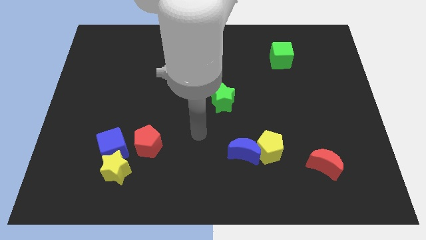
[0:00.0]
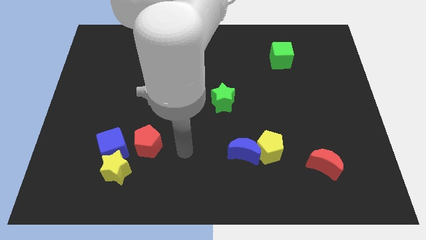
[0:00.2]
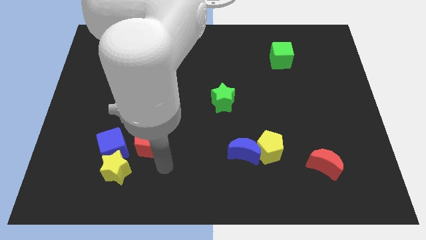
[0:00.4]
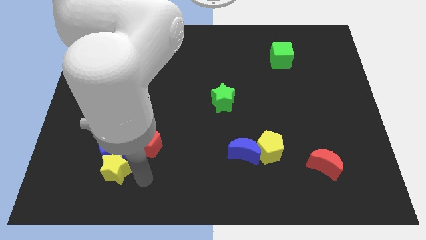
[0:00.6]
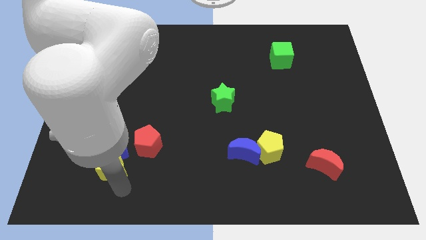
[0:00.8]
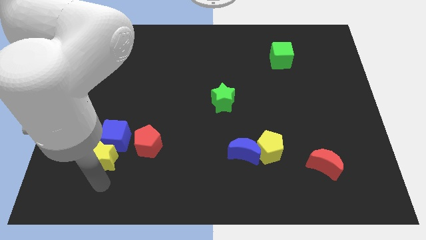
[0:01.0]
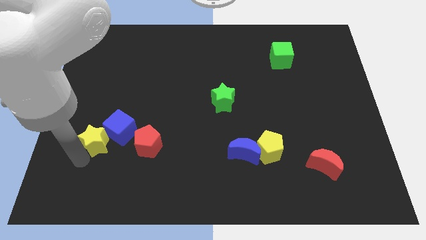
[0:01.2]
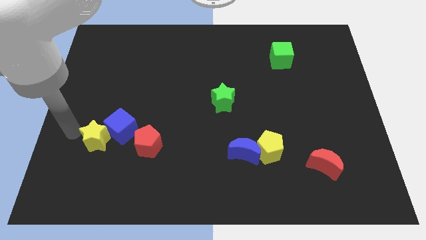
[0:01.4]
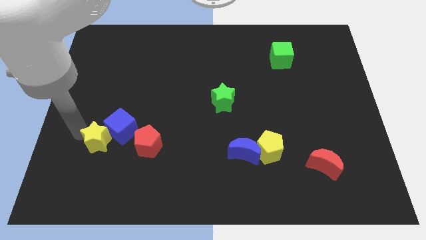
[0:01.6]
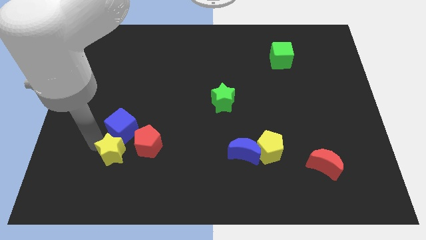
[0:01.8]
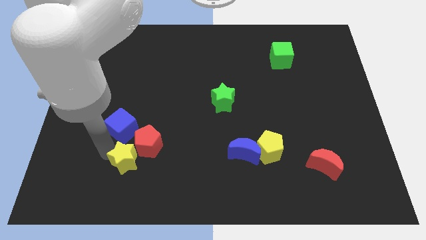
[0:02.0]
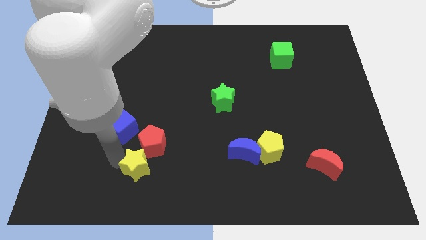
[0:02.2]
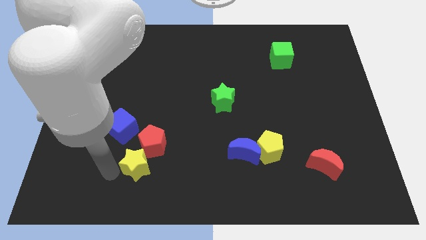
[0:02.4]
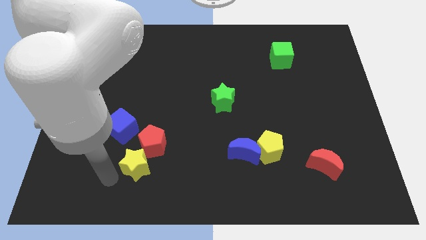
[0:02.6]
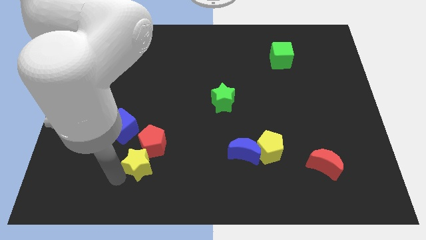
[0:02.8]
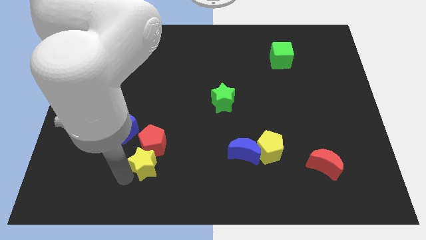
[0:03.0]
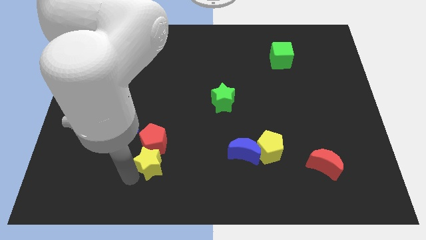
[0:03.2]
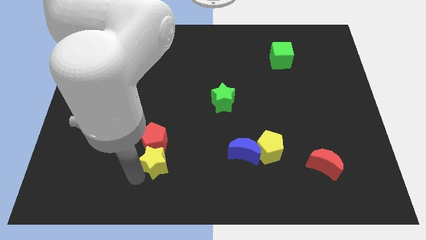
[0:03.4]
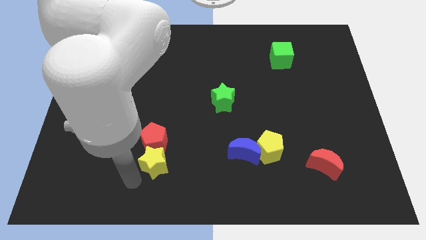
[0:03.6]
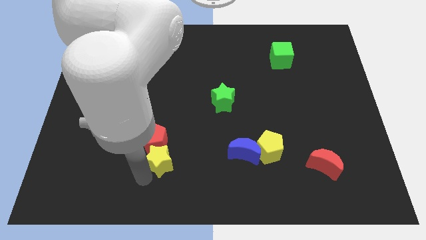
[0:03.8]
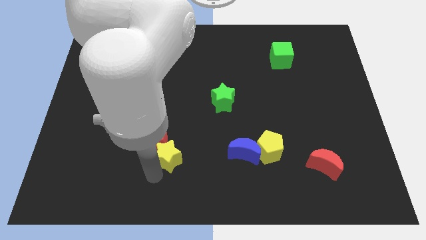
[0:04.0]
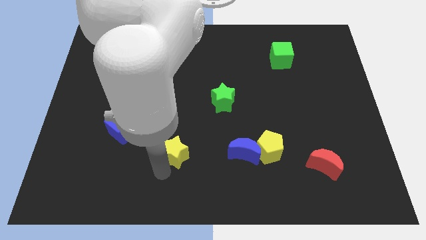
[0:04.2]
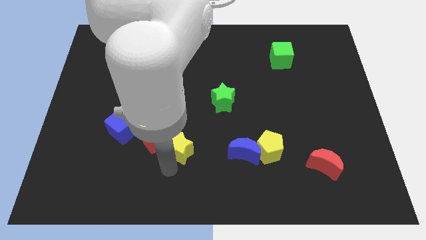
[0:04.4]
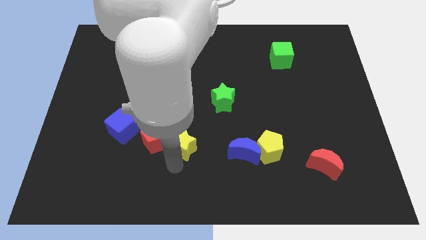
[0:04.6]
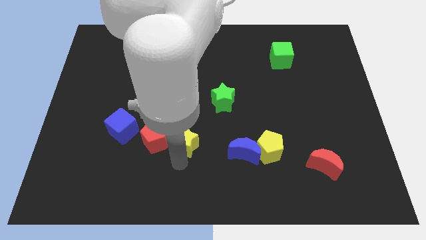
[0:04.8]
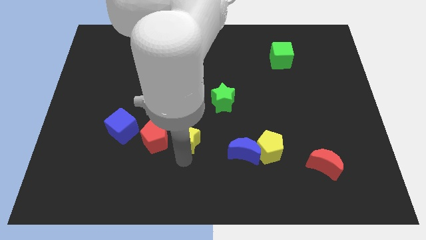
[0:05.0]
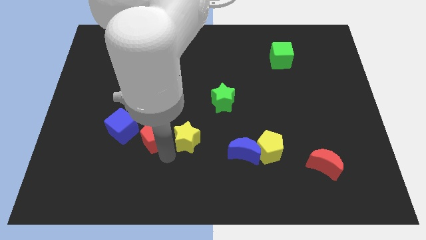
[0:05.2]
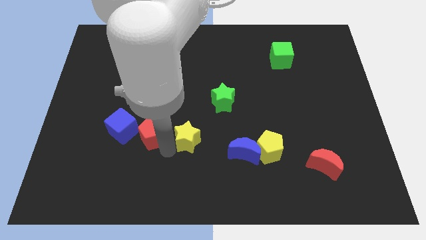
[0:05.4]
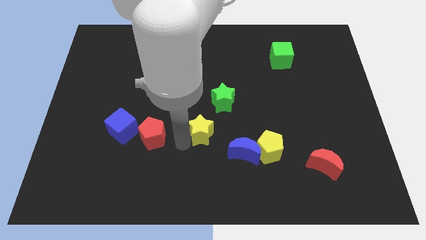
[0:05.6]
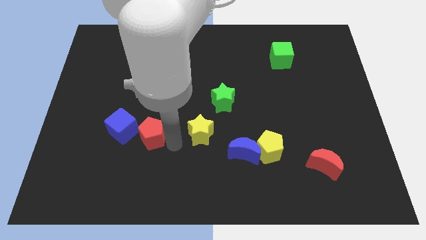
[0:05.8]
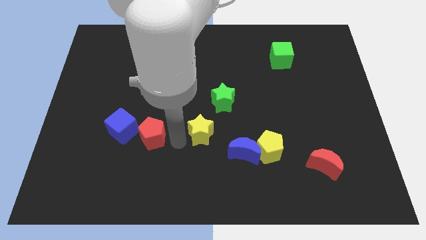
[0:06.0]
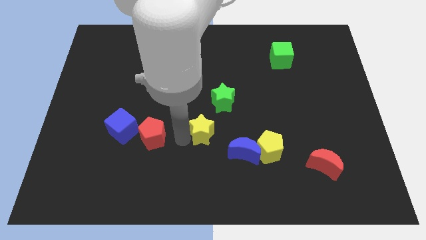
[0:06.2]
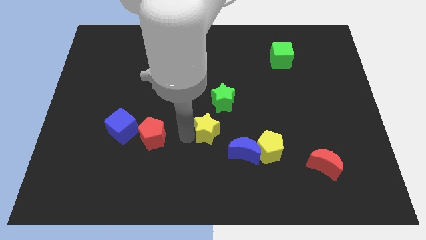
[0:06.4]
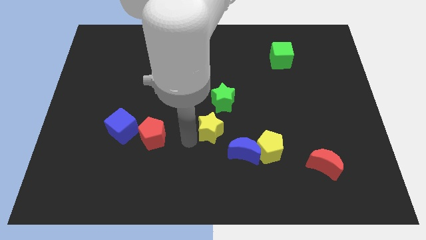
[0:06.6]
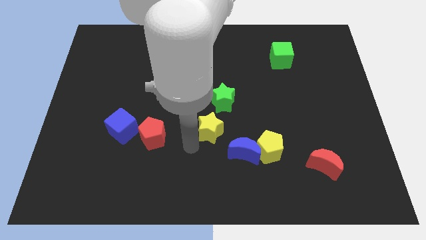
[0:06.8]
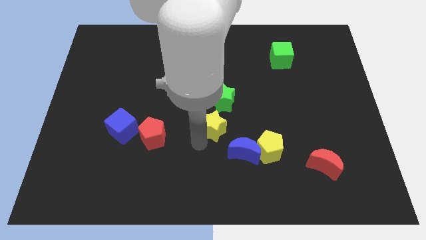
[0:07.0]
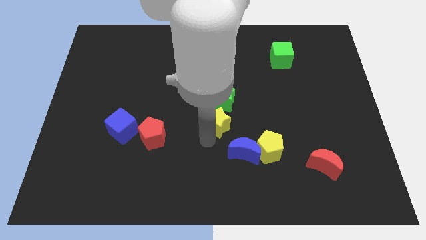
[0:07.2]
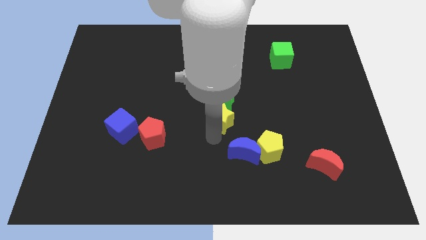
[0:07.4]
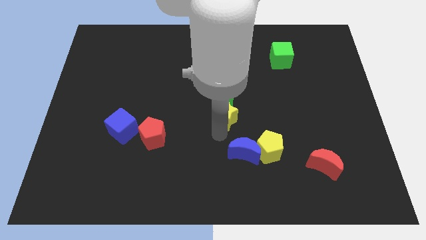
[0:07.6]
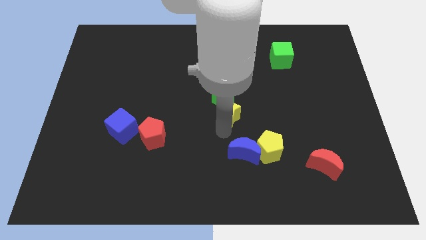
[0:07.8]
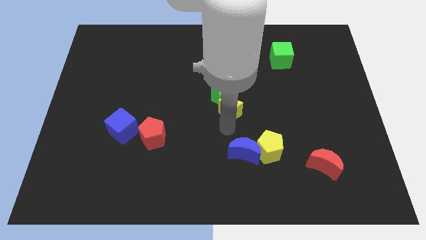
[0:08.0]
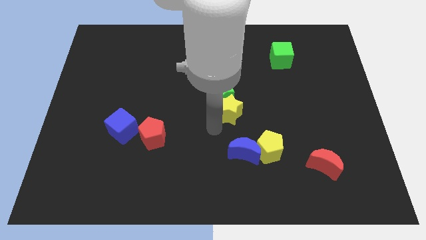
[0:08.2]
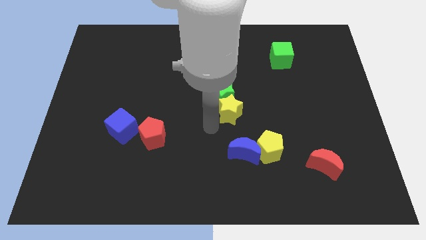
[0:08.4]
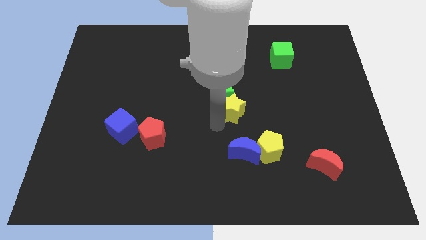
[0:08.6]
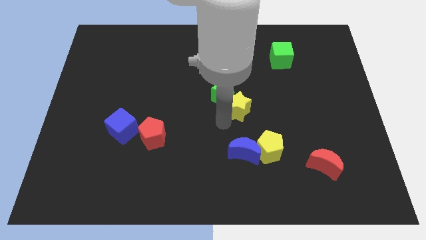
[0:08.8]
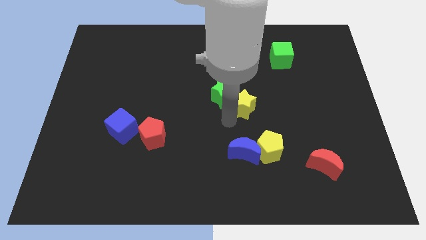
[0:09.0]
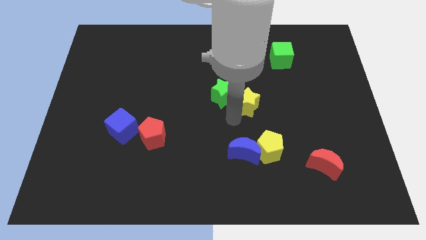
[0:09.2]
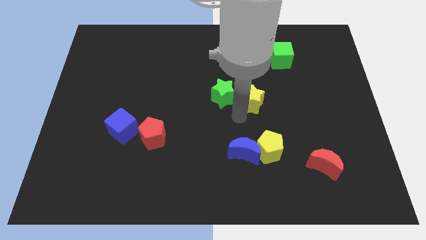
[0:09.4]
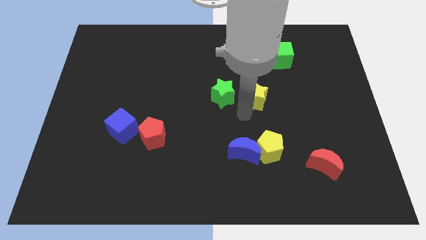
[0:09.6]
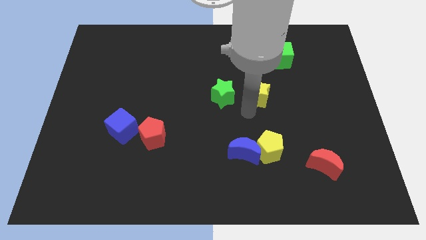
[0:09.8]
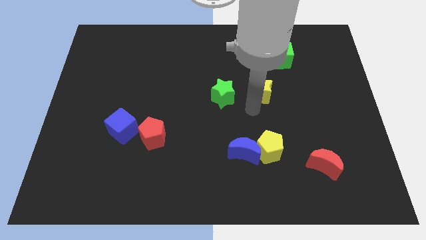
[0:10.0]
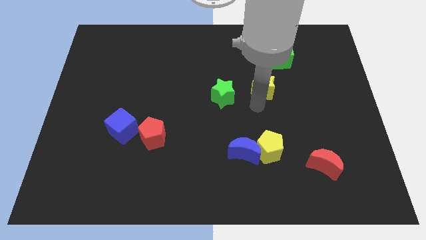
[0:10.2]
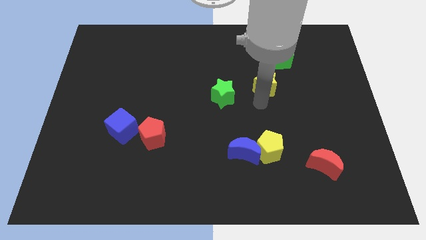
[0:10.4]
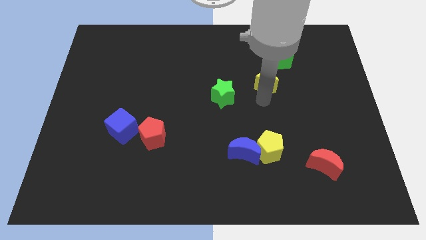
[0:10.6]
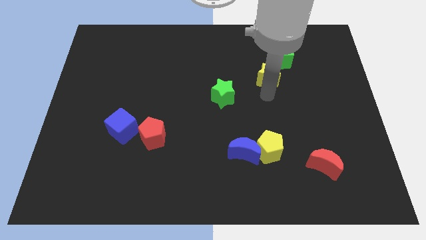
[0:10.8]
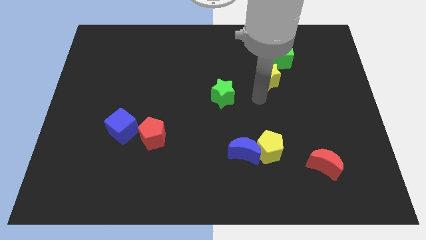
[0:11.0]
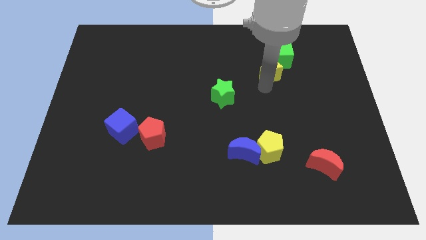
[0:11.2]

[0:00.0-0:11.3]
slide the yellow star next to the green cube

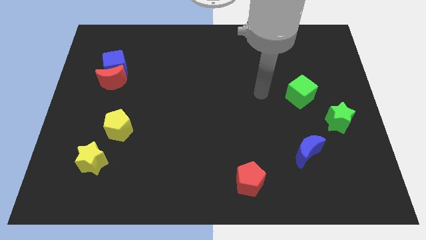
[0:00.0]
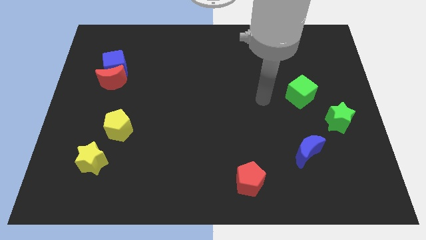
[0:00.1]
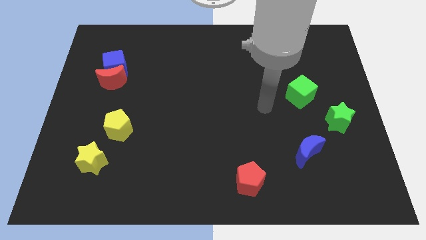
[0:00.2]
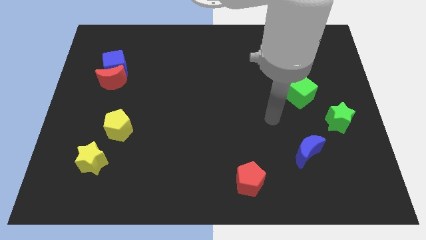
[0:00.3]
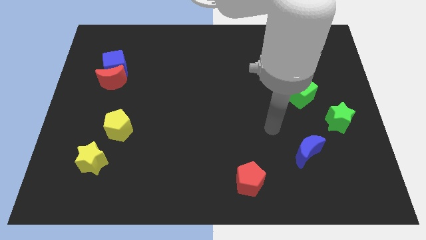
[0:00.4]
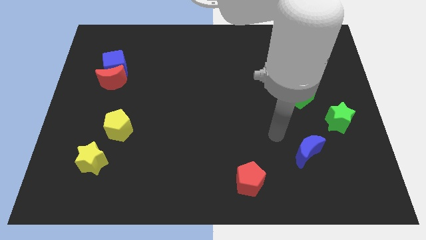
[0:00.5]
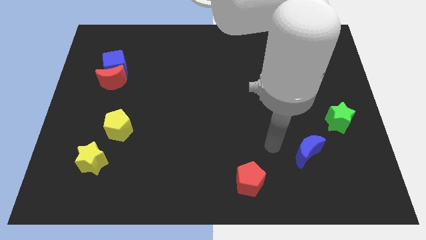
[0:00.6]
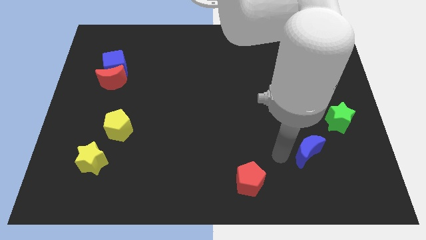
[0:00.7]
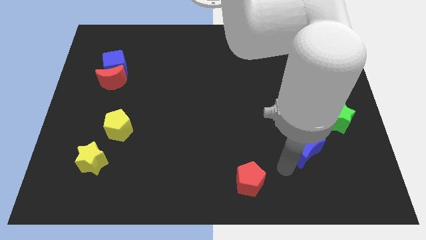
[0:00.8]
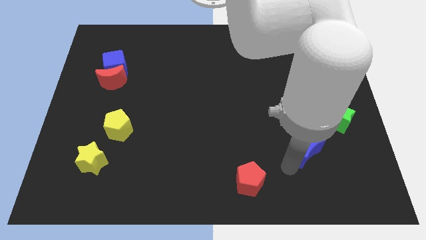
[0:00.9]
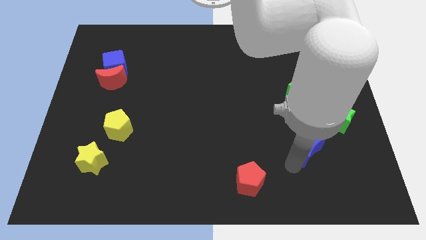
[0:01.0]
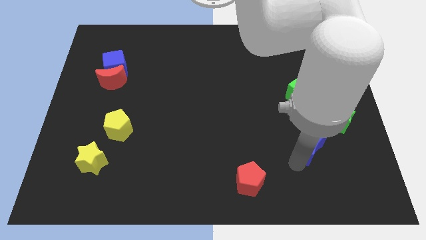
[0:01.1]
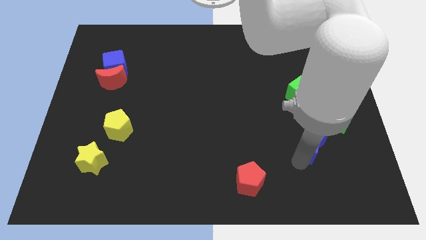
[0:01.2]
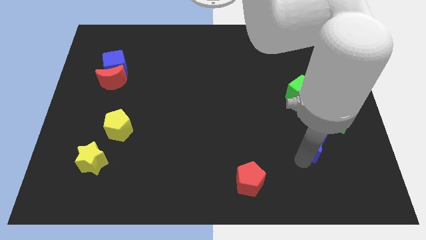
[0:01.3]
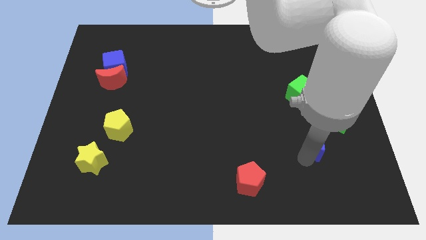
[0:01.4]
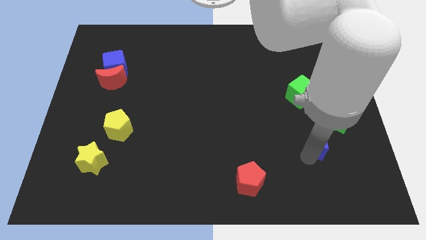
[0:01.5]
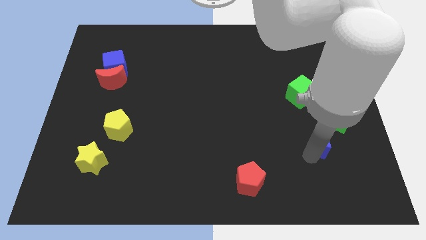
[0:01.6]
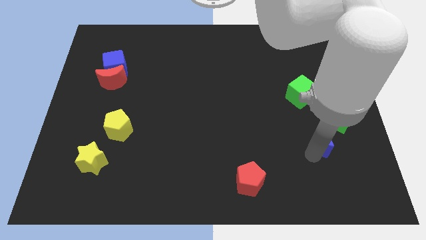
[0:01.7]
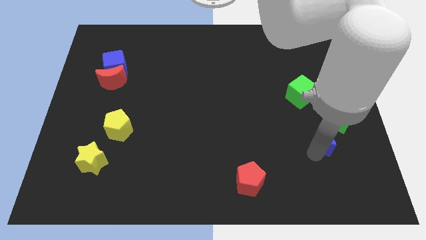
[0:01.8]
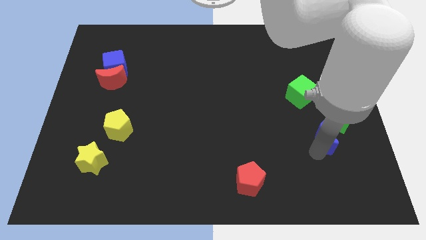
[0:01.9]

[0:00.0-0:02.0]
put the blue moon to the green star
